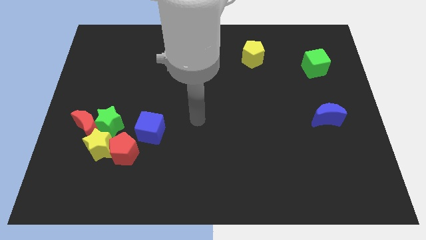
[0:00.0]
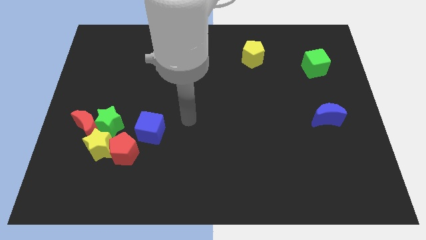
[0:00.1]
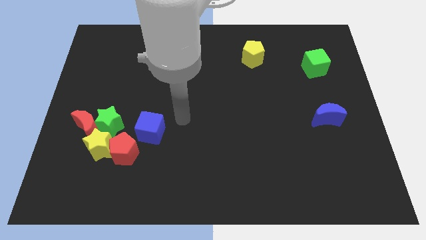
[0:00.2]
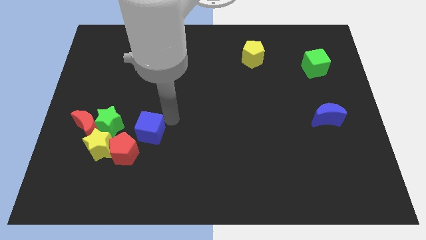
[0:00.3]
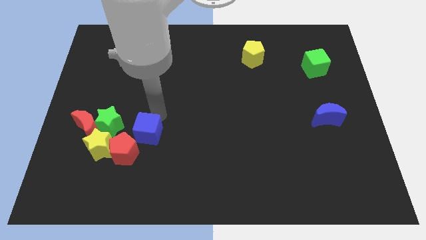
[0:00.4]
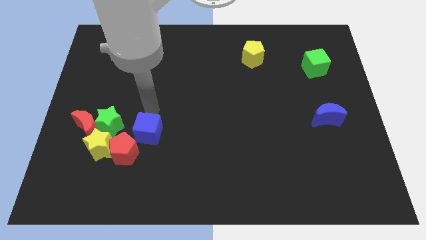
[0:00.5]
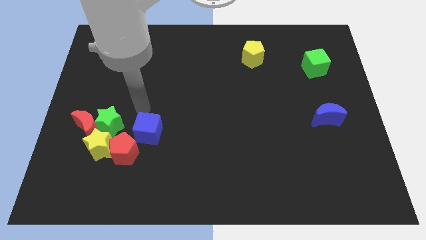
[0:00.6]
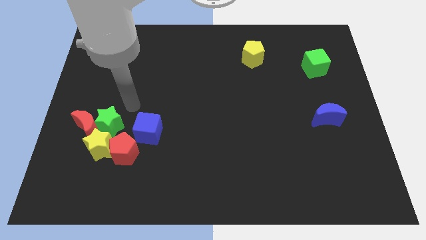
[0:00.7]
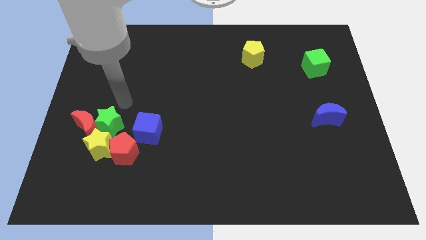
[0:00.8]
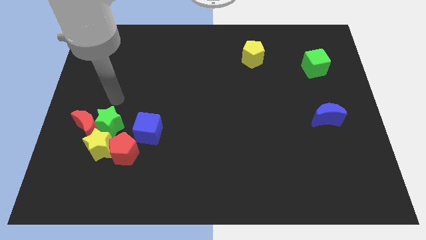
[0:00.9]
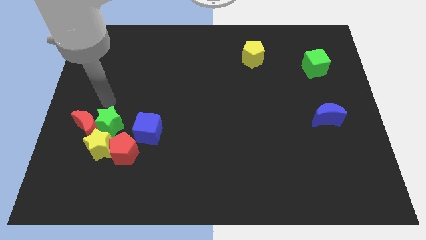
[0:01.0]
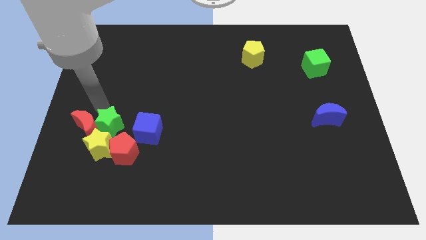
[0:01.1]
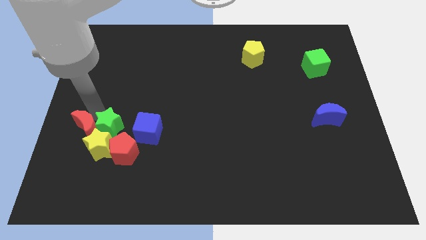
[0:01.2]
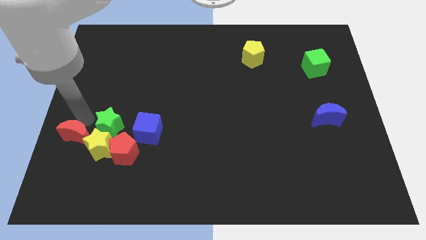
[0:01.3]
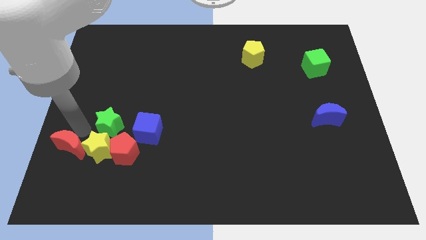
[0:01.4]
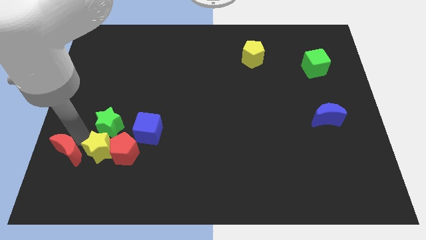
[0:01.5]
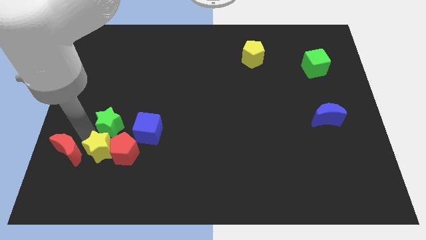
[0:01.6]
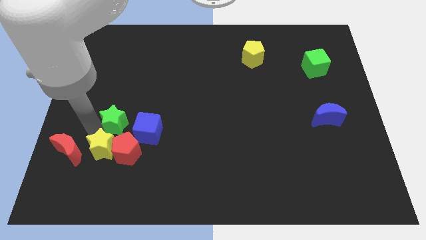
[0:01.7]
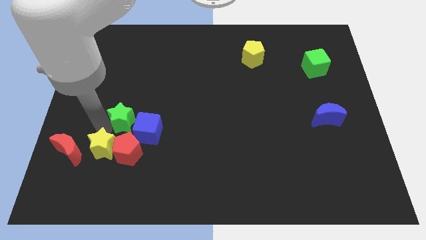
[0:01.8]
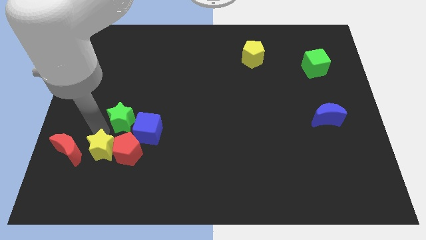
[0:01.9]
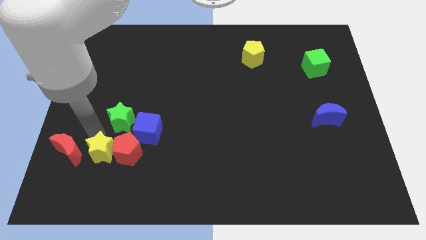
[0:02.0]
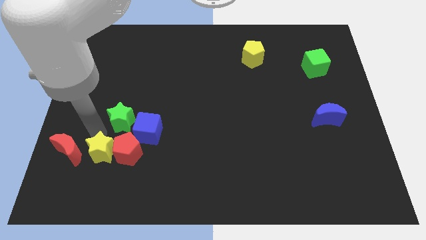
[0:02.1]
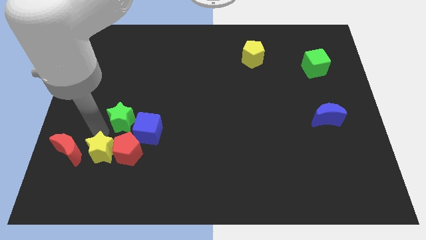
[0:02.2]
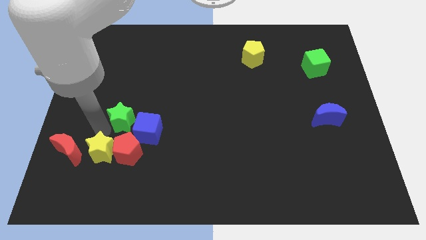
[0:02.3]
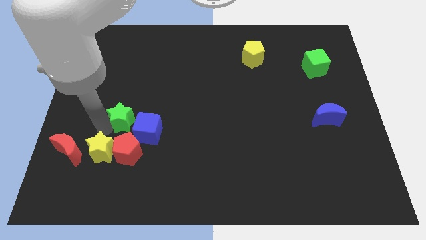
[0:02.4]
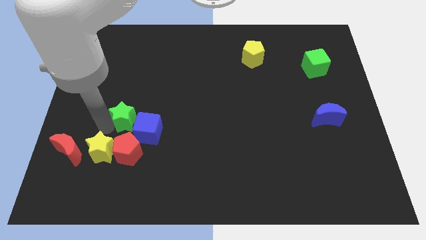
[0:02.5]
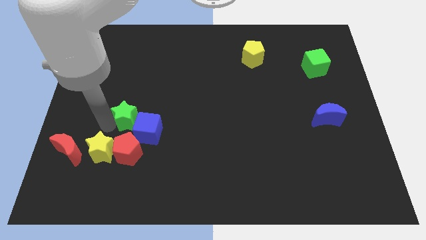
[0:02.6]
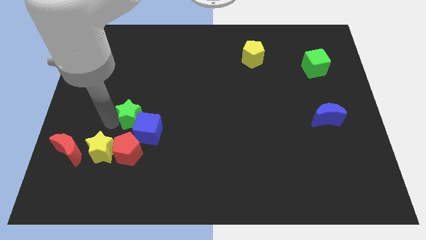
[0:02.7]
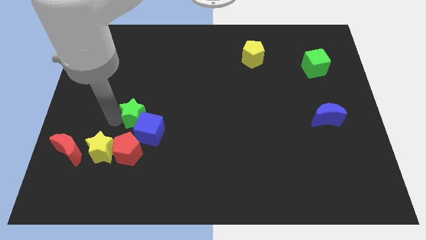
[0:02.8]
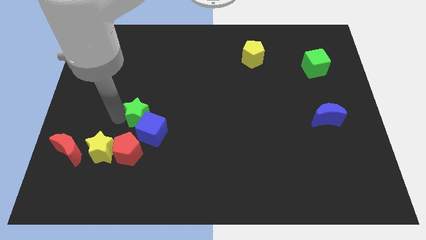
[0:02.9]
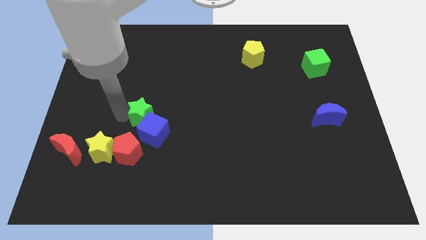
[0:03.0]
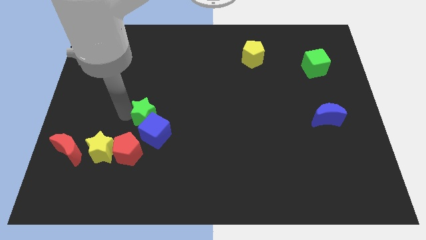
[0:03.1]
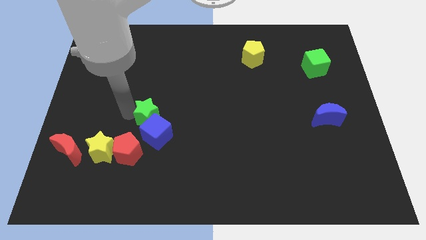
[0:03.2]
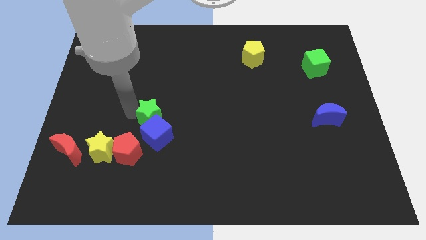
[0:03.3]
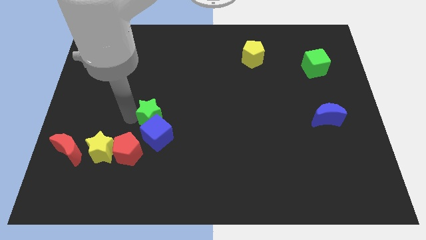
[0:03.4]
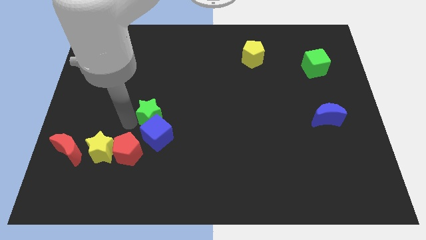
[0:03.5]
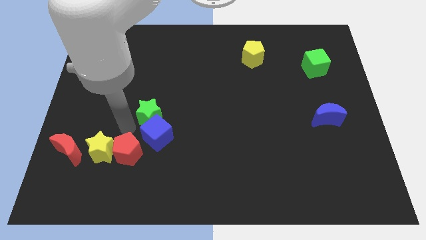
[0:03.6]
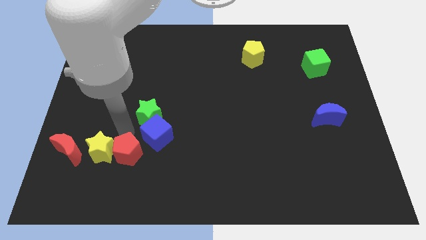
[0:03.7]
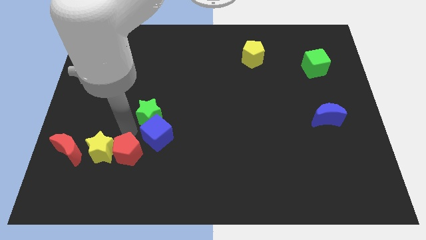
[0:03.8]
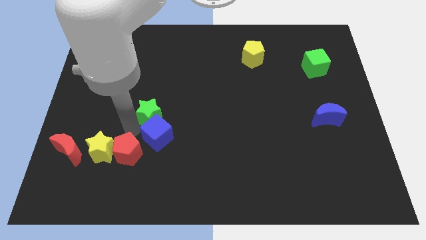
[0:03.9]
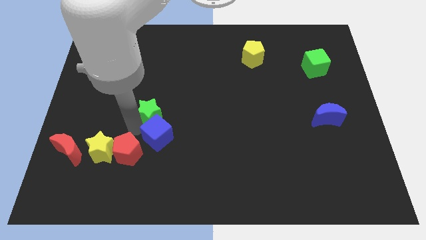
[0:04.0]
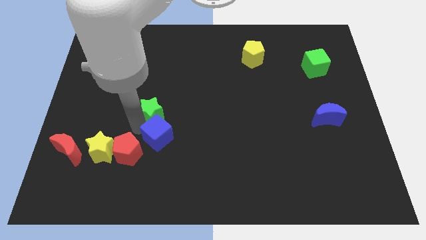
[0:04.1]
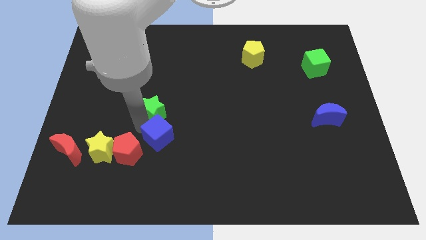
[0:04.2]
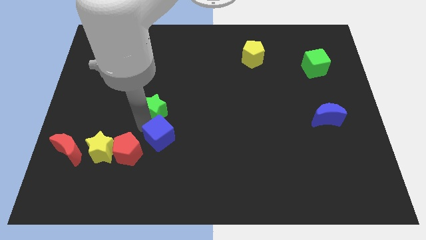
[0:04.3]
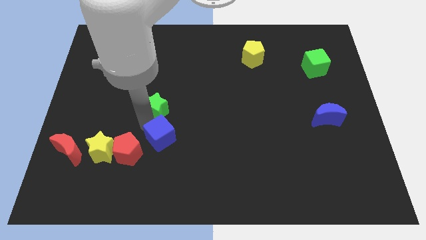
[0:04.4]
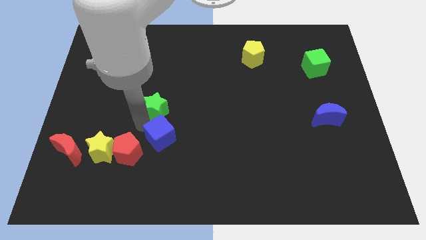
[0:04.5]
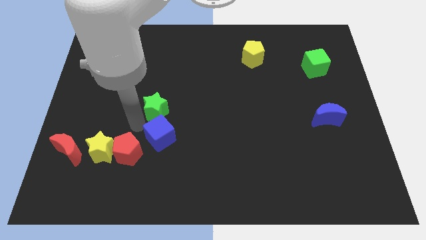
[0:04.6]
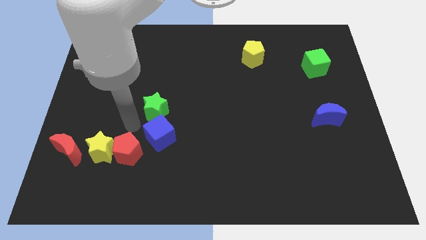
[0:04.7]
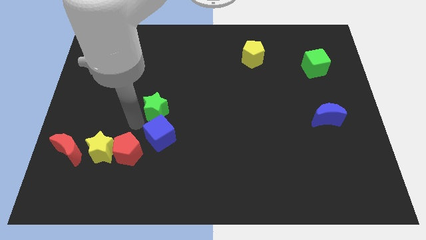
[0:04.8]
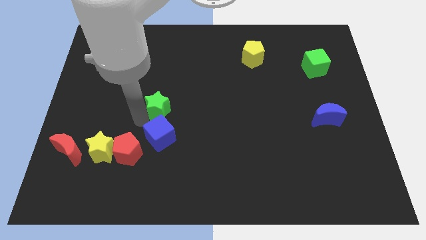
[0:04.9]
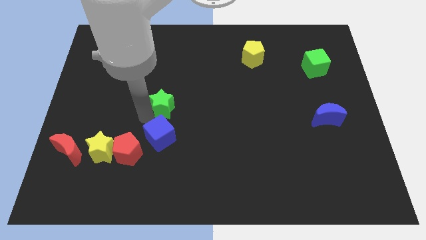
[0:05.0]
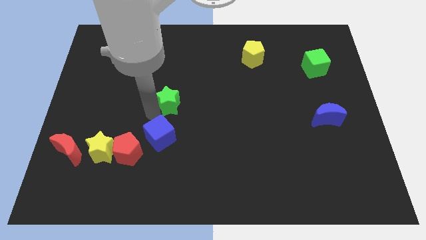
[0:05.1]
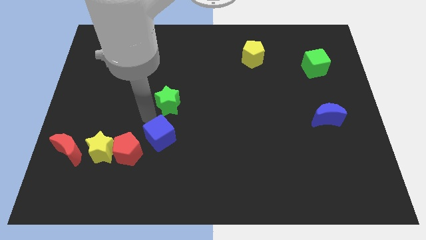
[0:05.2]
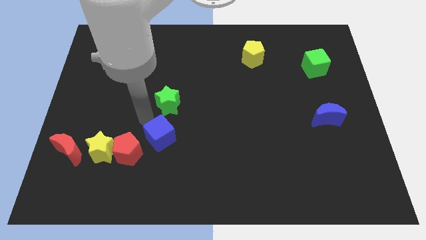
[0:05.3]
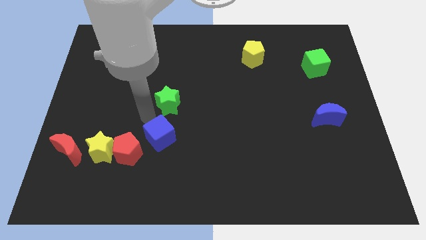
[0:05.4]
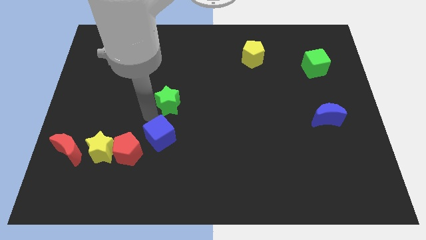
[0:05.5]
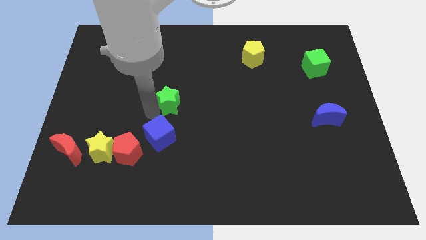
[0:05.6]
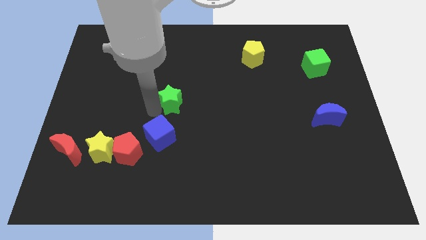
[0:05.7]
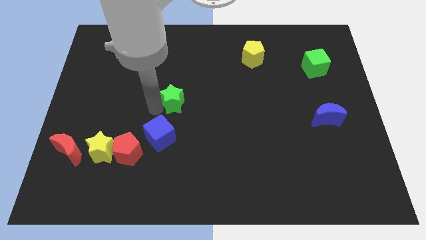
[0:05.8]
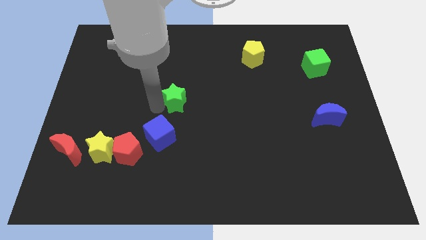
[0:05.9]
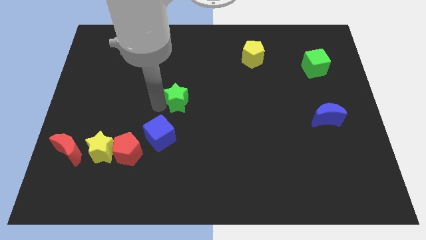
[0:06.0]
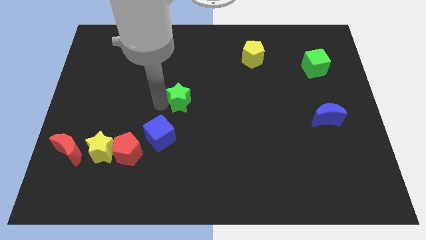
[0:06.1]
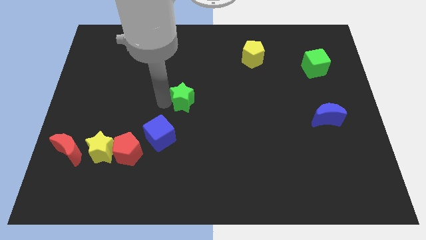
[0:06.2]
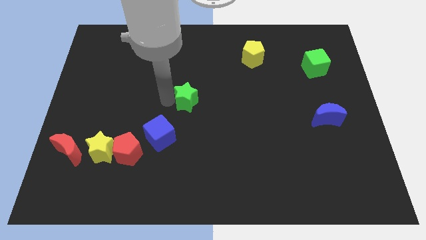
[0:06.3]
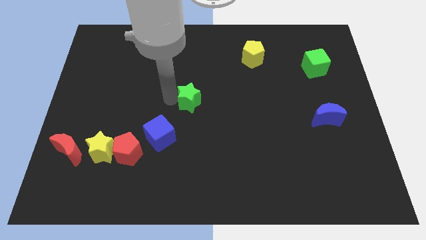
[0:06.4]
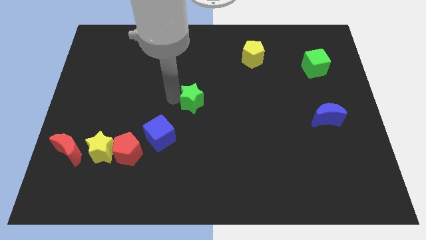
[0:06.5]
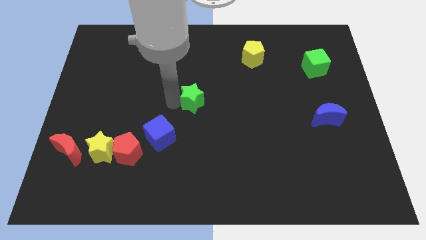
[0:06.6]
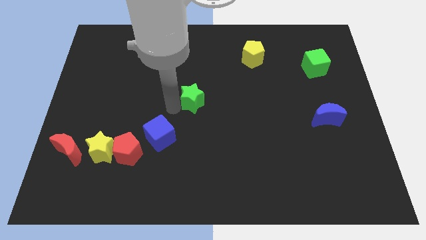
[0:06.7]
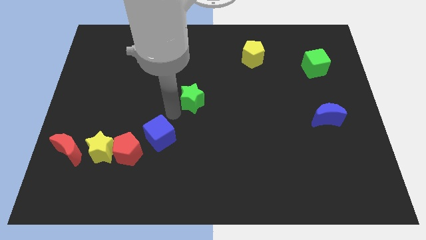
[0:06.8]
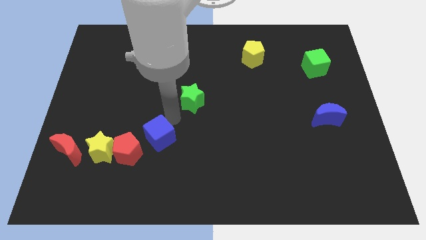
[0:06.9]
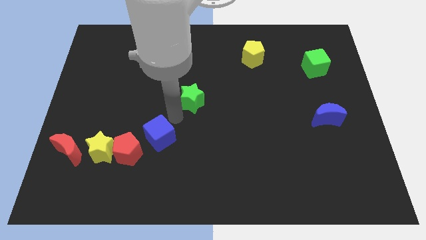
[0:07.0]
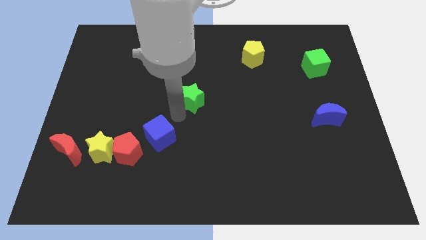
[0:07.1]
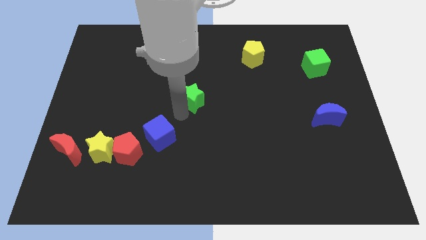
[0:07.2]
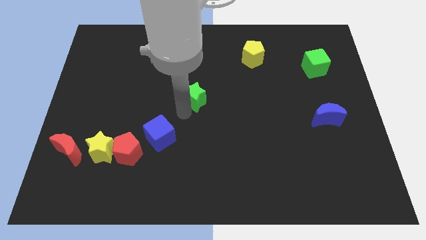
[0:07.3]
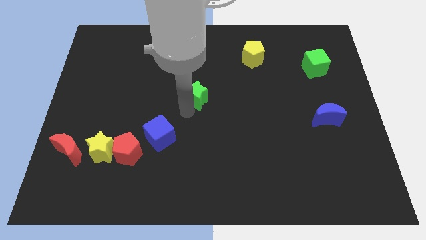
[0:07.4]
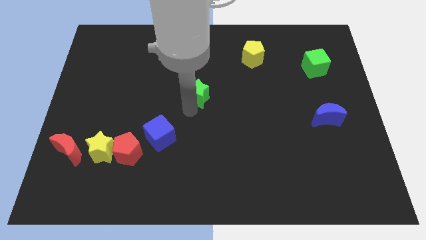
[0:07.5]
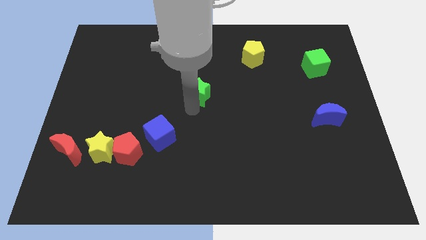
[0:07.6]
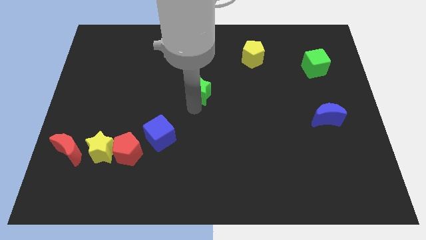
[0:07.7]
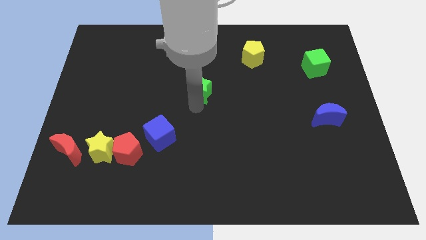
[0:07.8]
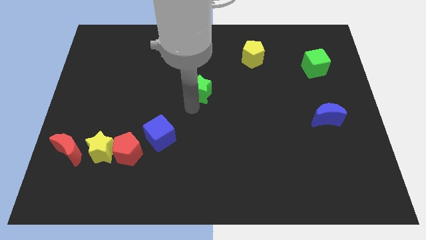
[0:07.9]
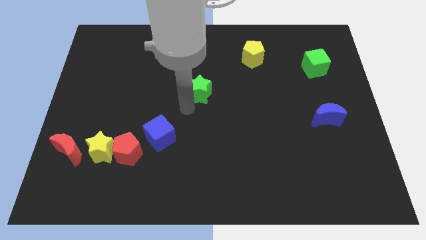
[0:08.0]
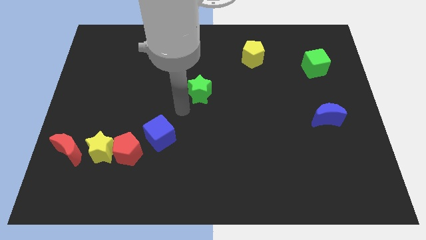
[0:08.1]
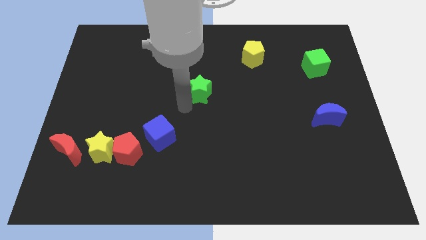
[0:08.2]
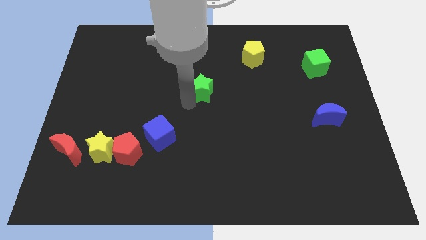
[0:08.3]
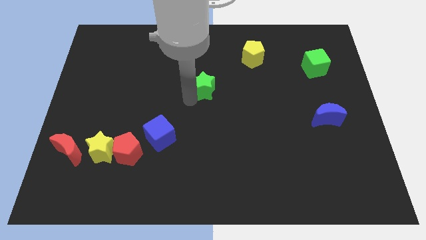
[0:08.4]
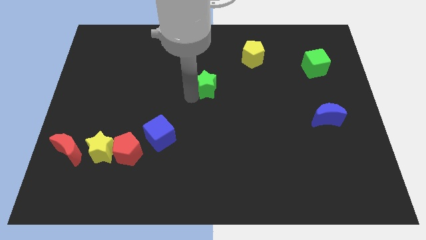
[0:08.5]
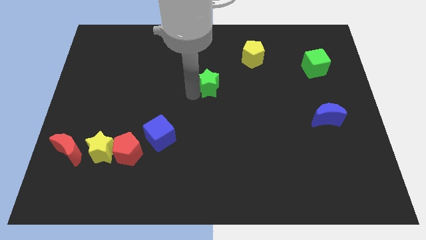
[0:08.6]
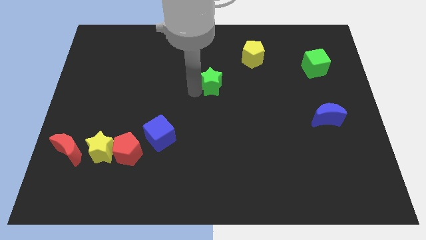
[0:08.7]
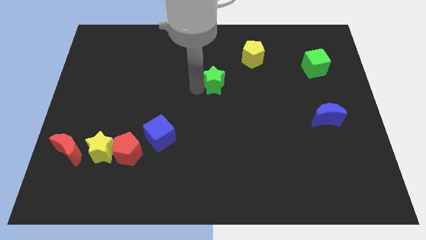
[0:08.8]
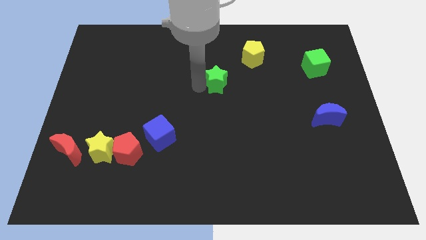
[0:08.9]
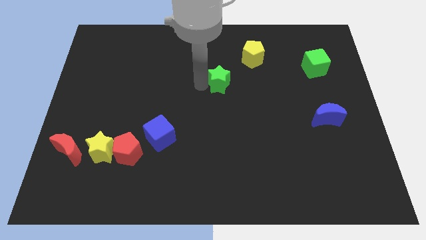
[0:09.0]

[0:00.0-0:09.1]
slide the green star diagonally down and to the left of the yellow pentagon
